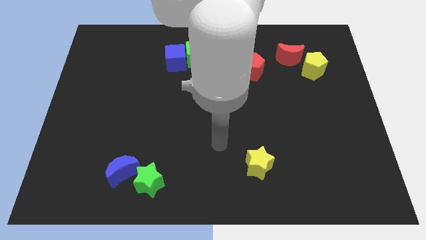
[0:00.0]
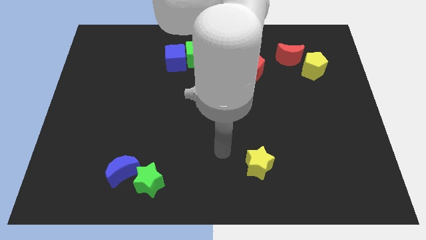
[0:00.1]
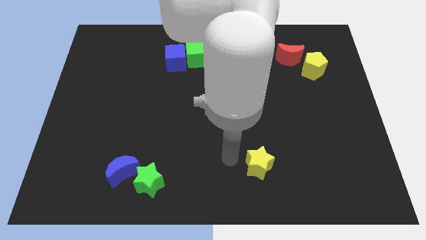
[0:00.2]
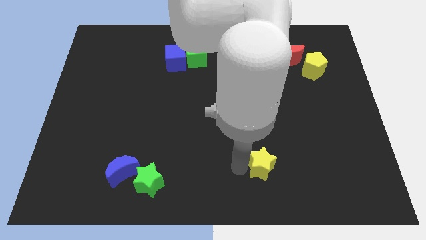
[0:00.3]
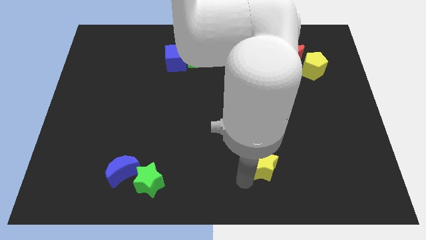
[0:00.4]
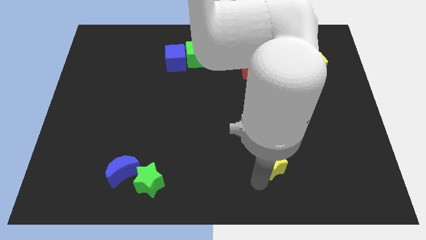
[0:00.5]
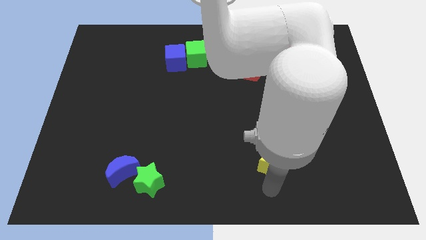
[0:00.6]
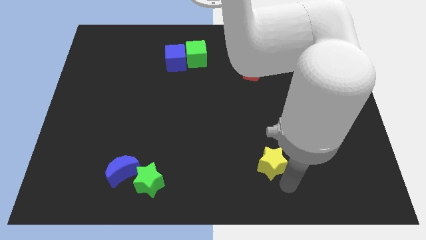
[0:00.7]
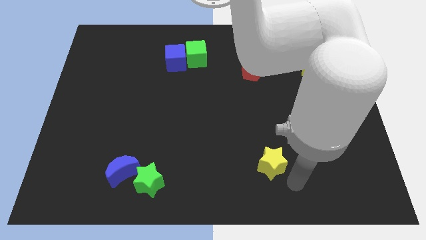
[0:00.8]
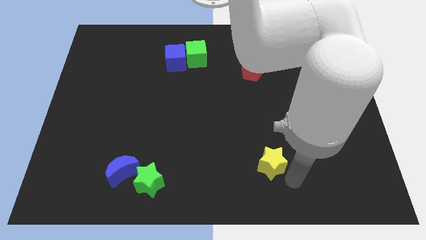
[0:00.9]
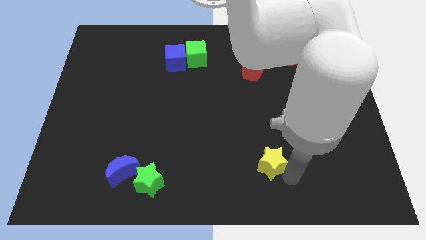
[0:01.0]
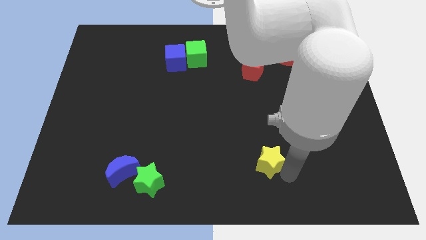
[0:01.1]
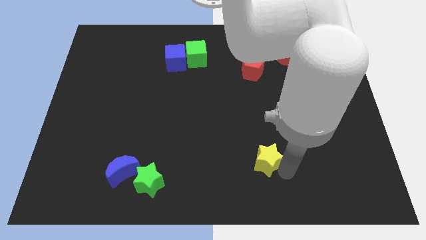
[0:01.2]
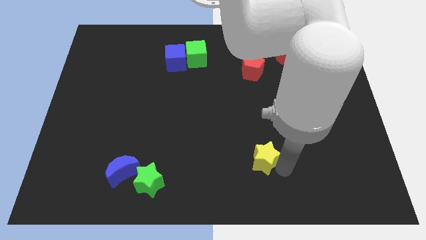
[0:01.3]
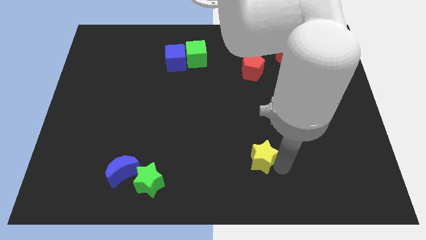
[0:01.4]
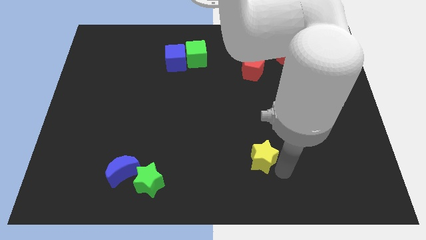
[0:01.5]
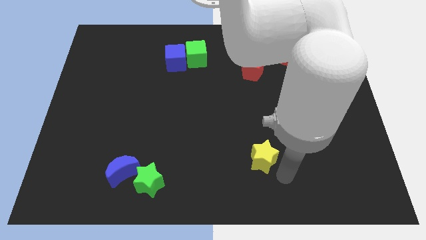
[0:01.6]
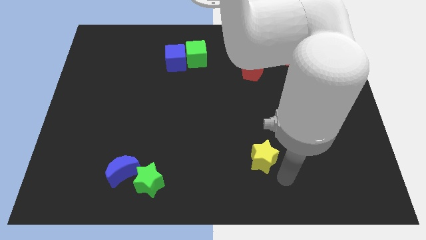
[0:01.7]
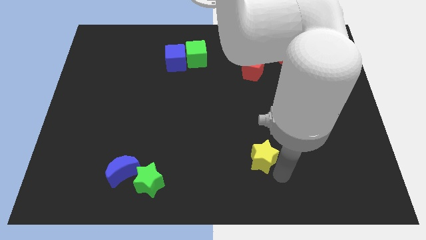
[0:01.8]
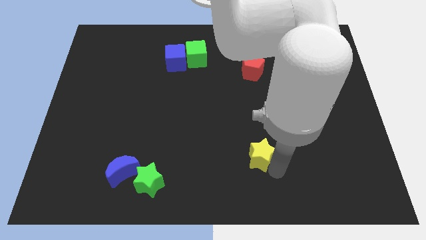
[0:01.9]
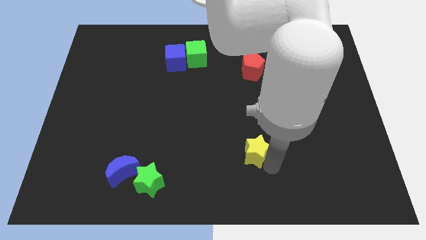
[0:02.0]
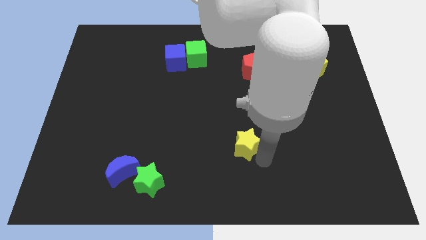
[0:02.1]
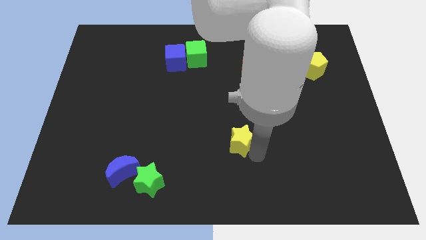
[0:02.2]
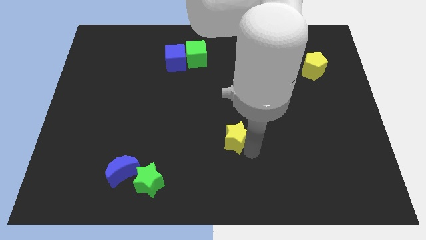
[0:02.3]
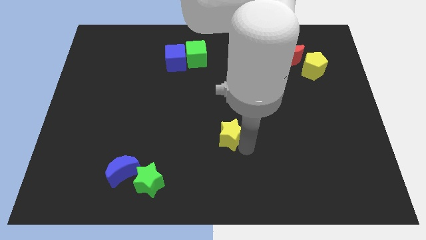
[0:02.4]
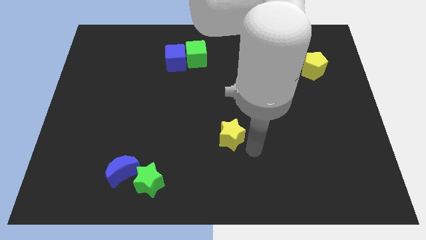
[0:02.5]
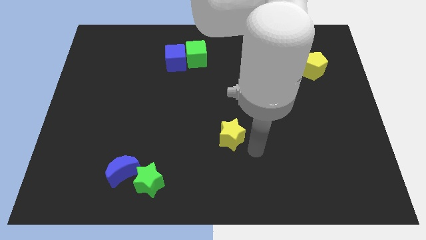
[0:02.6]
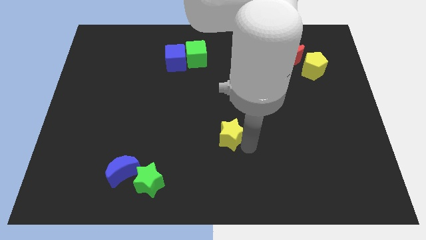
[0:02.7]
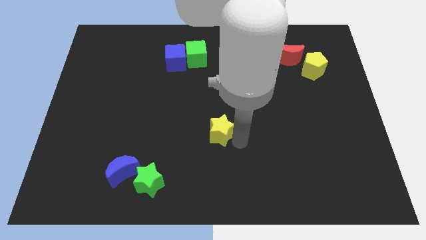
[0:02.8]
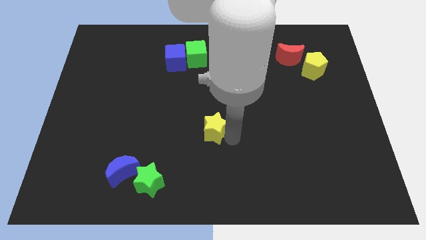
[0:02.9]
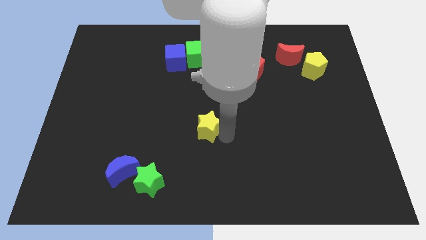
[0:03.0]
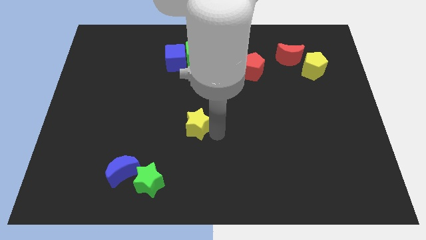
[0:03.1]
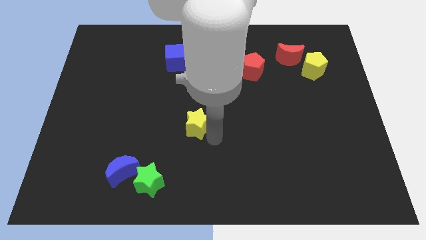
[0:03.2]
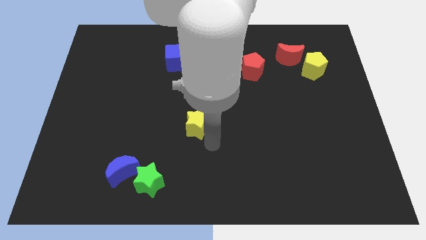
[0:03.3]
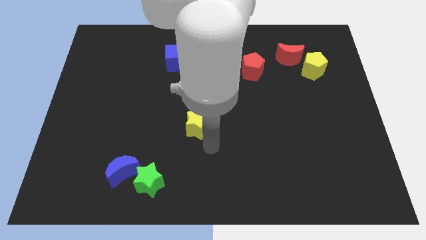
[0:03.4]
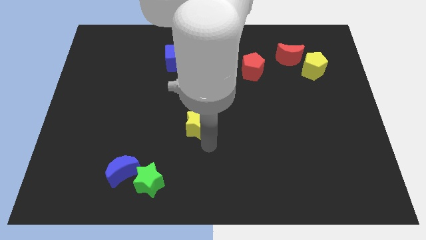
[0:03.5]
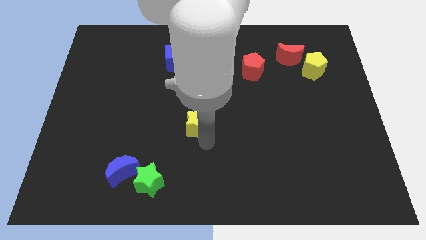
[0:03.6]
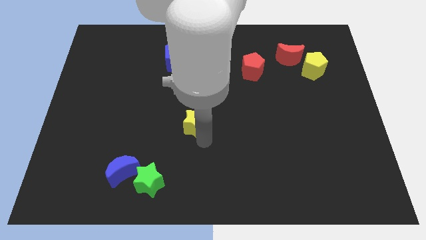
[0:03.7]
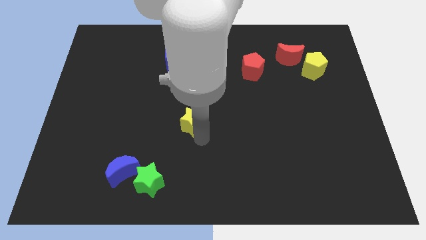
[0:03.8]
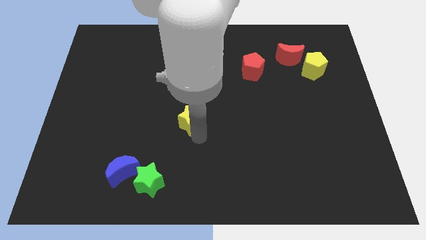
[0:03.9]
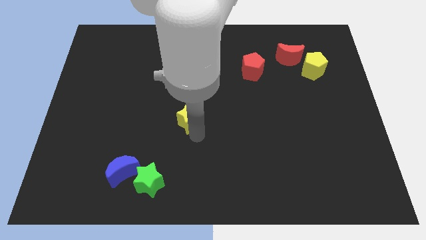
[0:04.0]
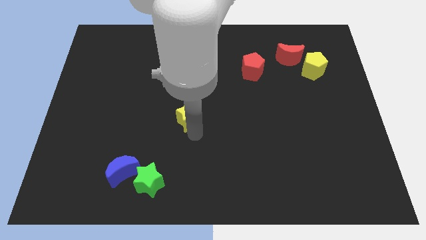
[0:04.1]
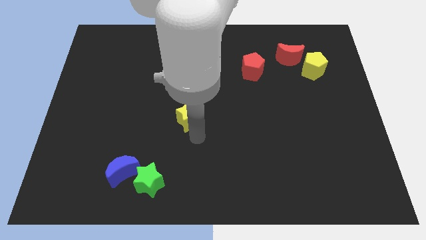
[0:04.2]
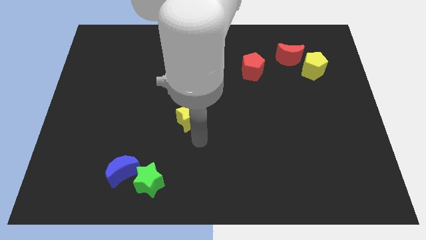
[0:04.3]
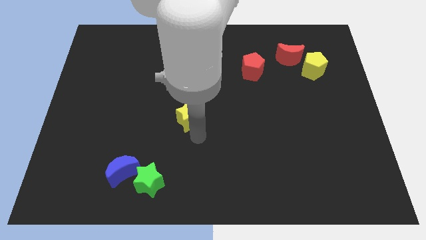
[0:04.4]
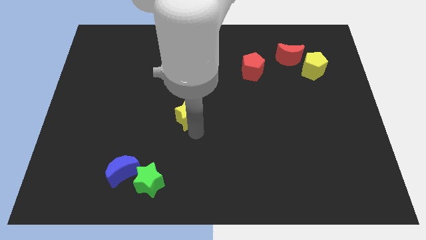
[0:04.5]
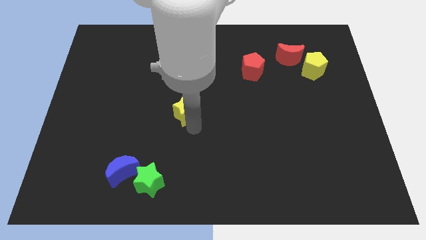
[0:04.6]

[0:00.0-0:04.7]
slide the yellow star diagonally up and to the left

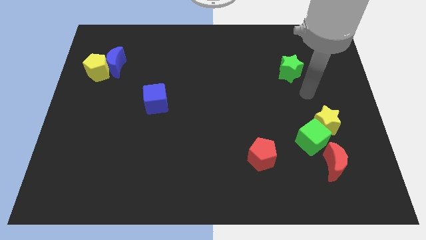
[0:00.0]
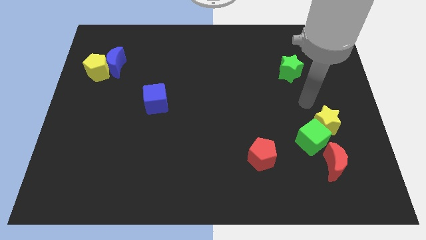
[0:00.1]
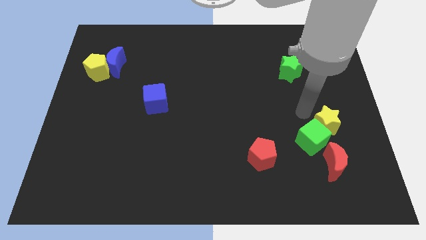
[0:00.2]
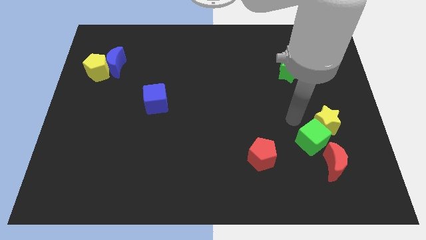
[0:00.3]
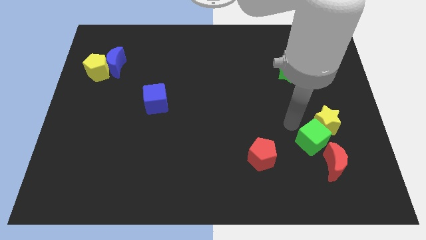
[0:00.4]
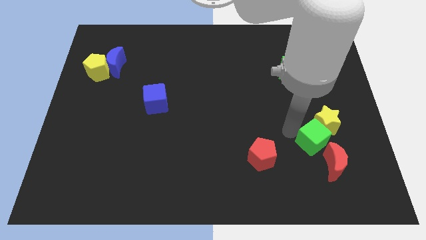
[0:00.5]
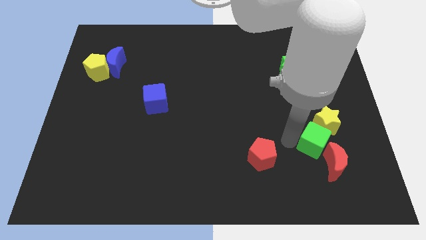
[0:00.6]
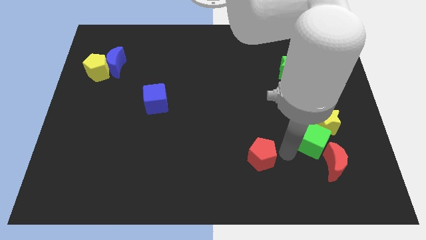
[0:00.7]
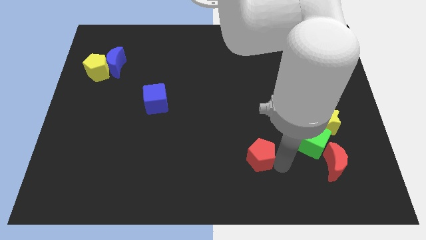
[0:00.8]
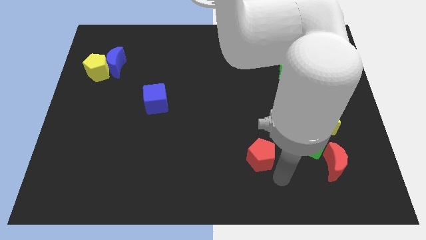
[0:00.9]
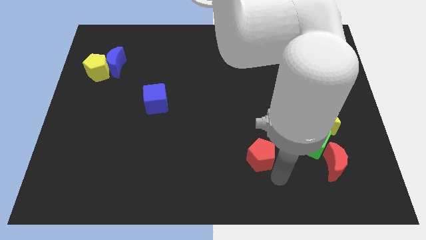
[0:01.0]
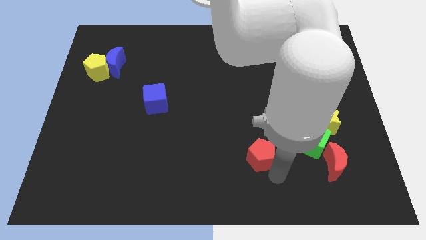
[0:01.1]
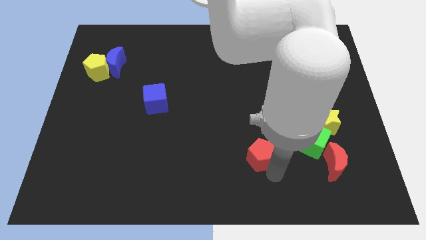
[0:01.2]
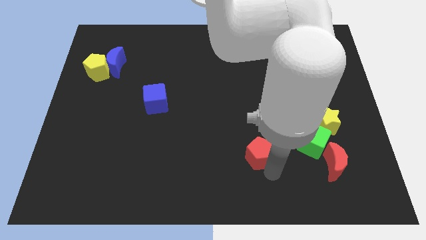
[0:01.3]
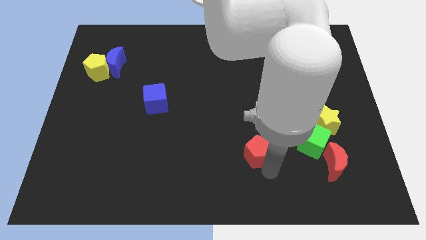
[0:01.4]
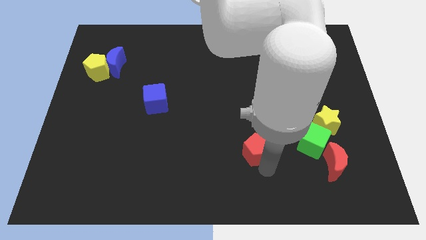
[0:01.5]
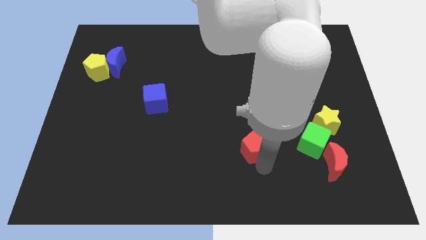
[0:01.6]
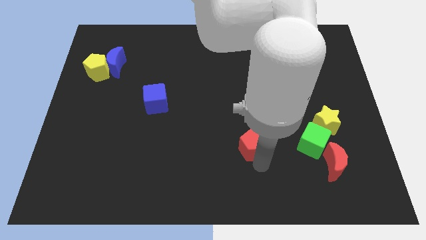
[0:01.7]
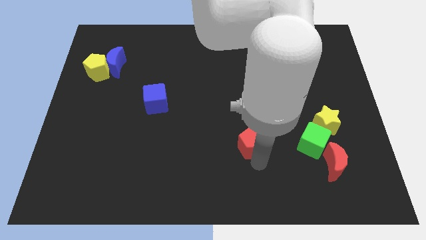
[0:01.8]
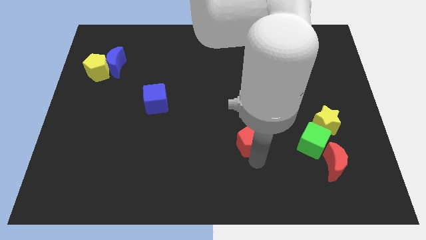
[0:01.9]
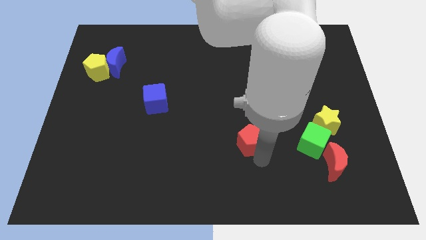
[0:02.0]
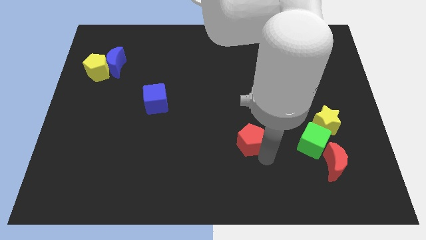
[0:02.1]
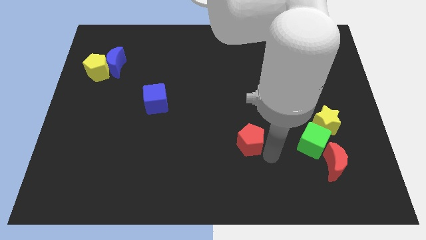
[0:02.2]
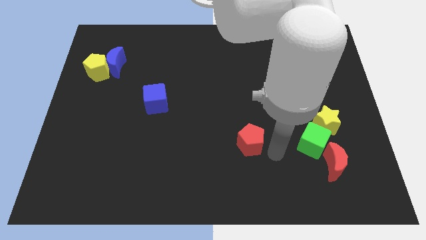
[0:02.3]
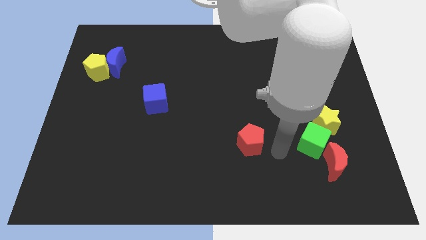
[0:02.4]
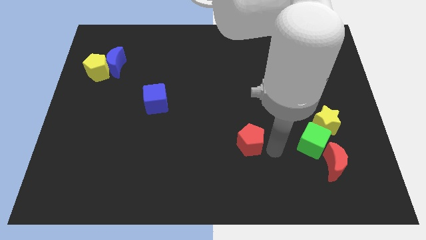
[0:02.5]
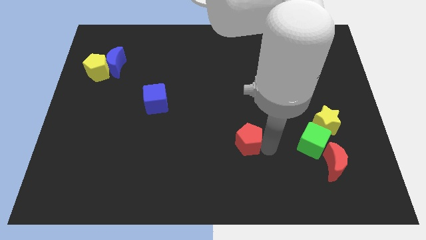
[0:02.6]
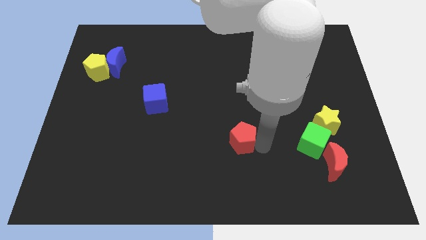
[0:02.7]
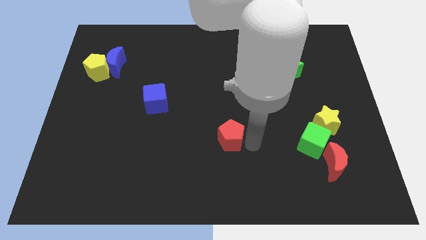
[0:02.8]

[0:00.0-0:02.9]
slightly push the red pentagon upwards and to the left diagonally

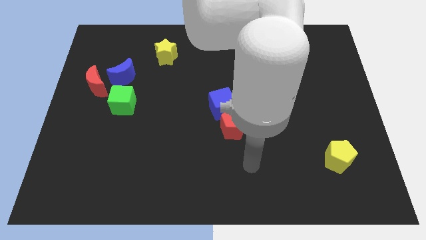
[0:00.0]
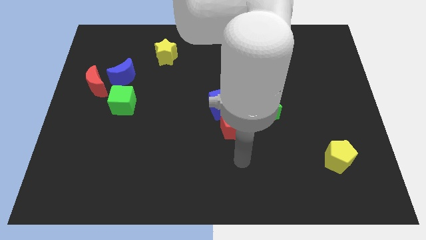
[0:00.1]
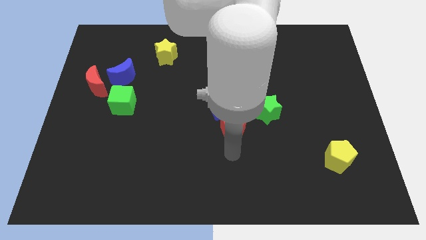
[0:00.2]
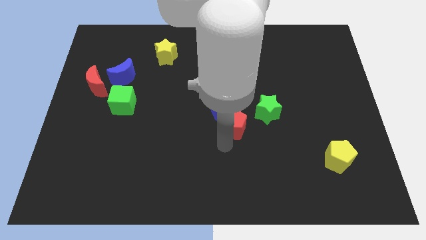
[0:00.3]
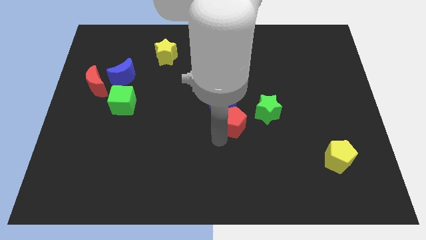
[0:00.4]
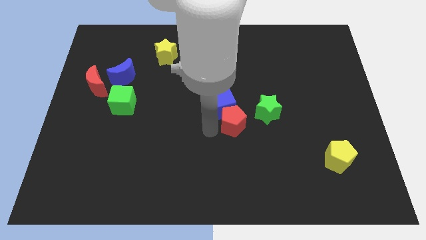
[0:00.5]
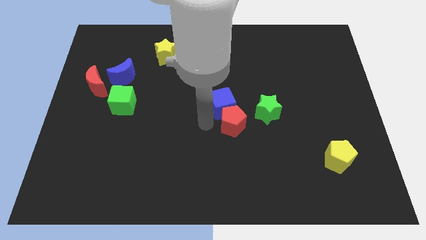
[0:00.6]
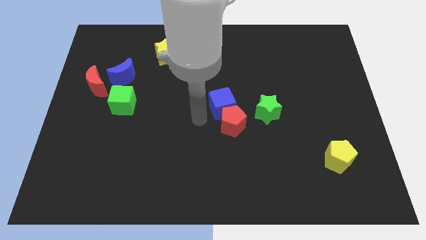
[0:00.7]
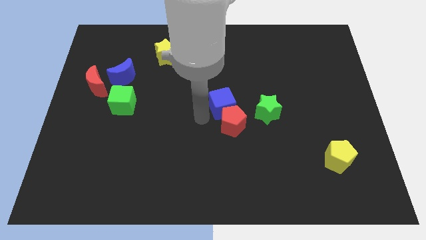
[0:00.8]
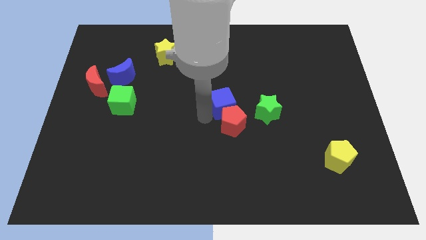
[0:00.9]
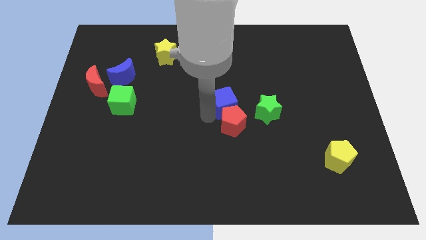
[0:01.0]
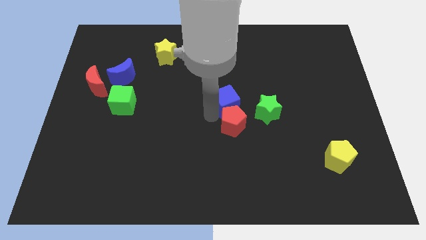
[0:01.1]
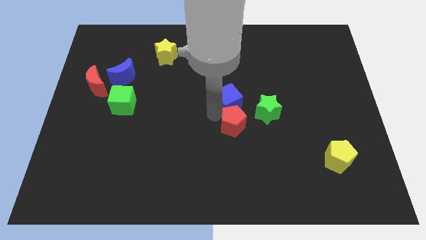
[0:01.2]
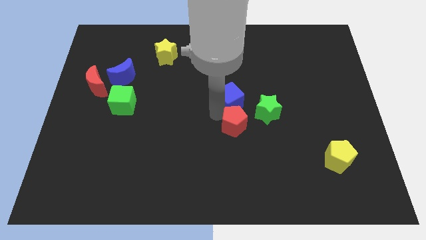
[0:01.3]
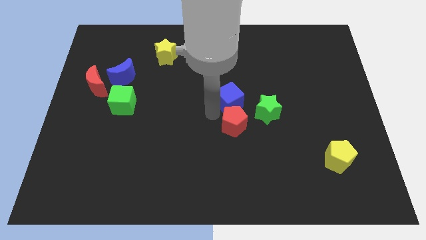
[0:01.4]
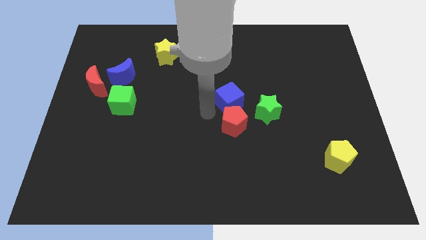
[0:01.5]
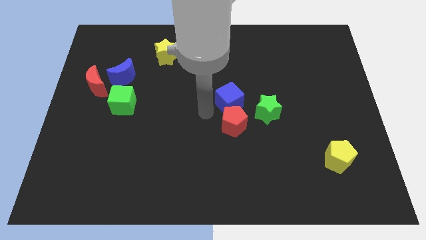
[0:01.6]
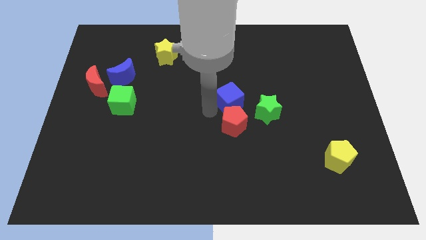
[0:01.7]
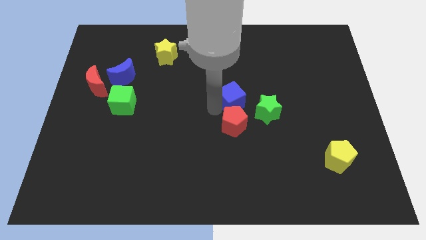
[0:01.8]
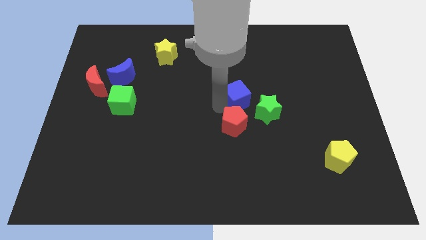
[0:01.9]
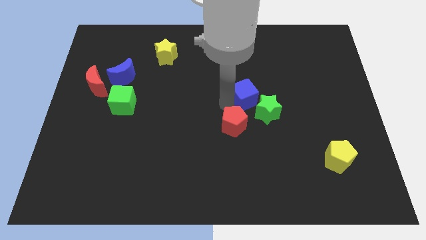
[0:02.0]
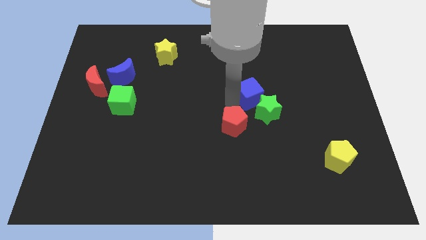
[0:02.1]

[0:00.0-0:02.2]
slide the blue cube a little bit up and right
